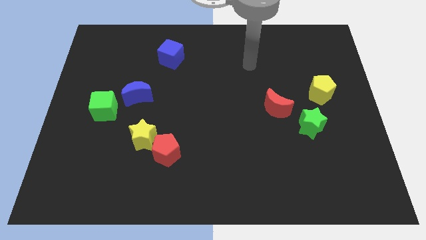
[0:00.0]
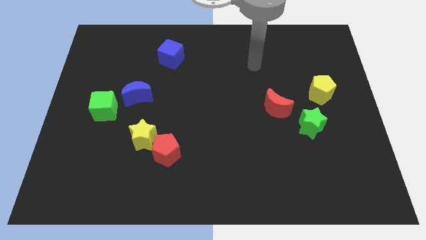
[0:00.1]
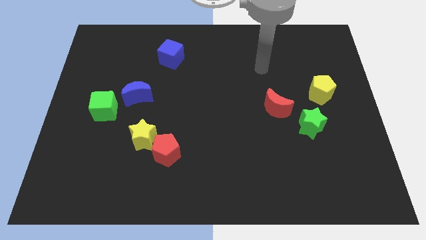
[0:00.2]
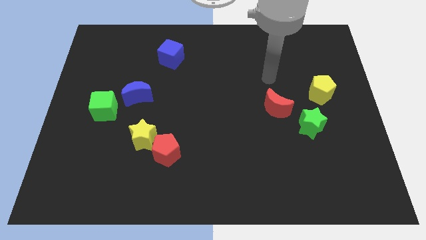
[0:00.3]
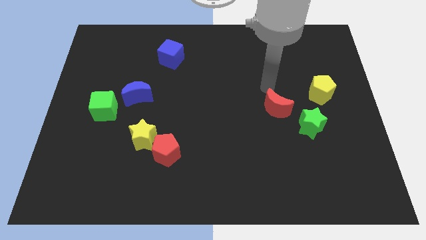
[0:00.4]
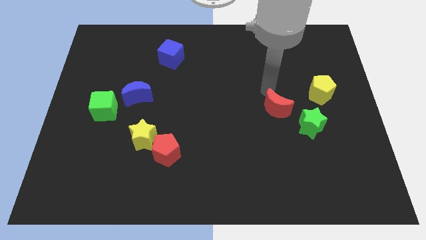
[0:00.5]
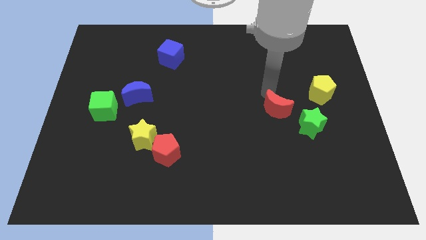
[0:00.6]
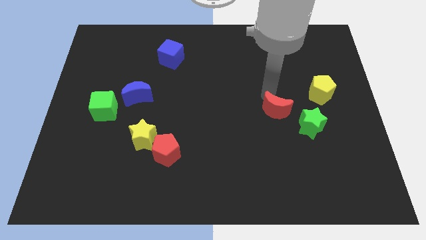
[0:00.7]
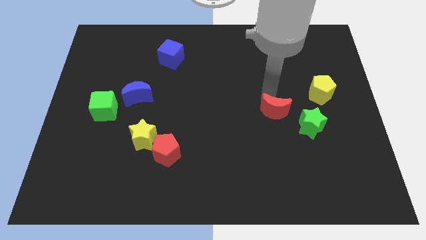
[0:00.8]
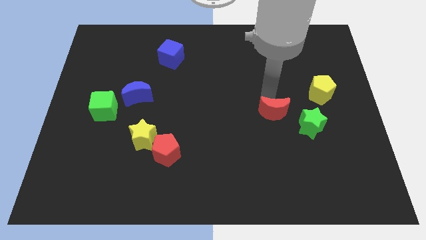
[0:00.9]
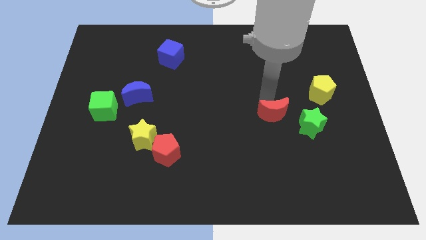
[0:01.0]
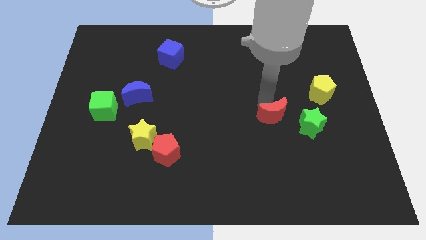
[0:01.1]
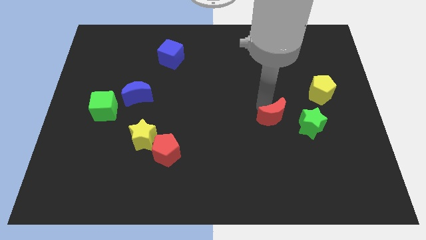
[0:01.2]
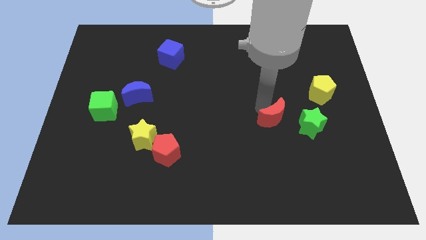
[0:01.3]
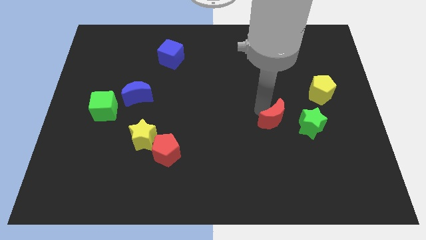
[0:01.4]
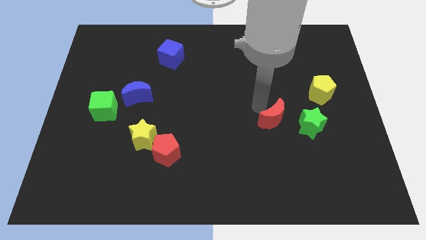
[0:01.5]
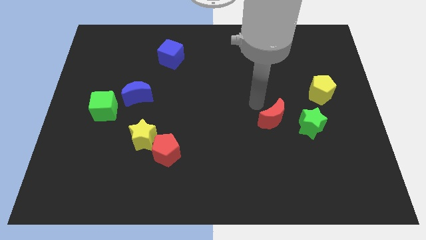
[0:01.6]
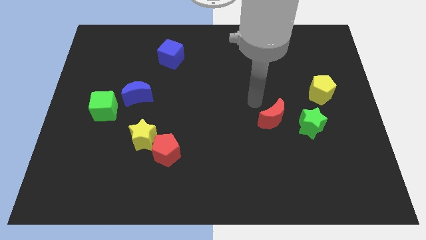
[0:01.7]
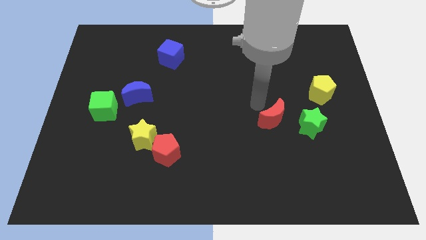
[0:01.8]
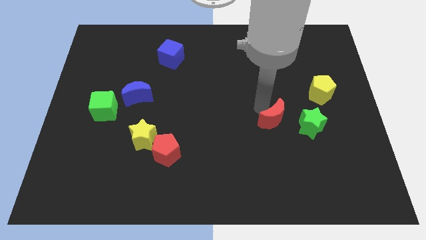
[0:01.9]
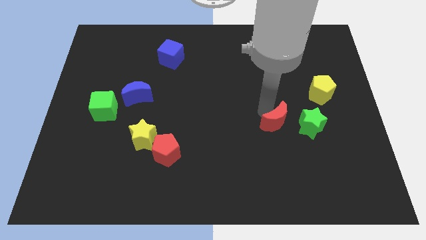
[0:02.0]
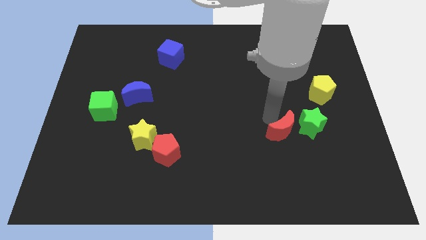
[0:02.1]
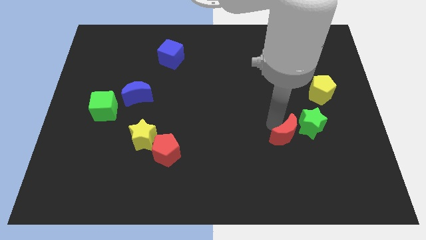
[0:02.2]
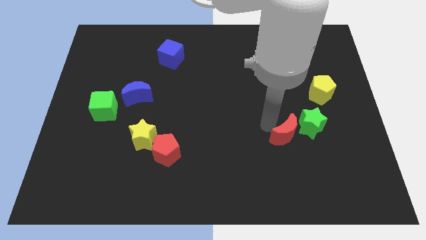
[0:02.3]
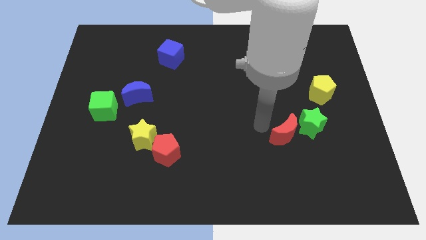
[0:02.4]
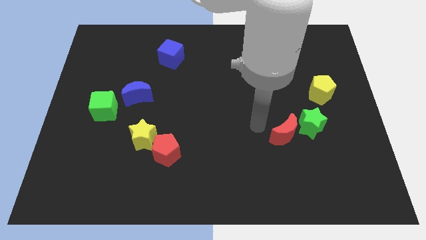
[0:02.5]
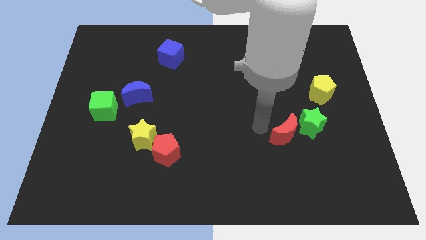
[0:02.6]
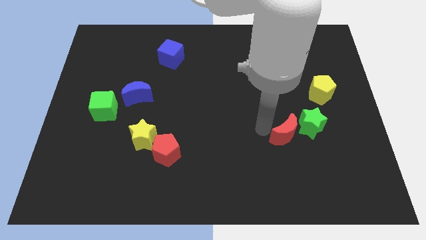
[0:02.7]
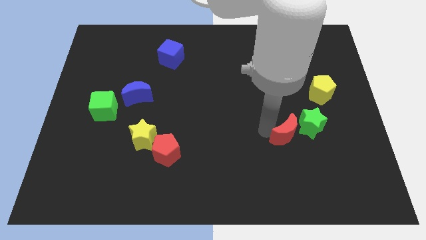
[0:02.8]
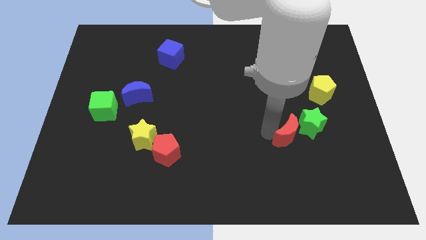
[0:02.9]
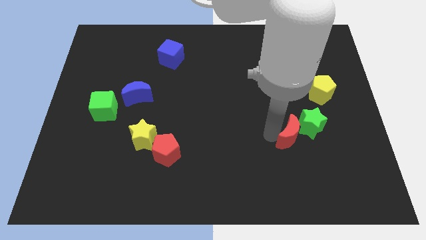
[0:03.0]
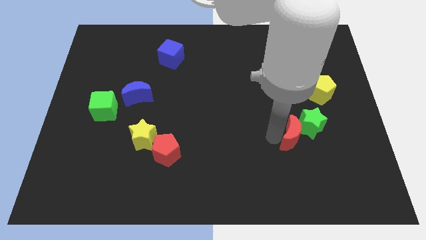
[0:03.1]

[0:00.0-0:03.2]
slightly push the red moon diagonally down and right

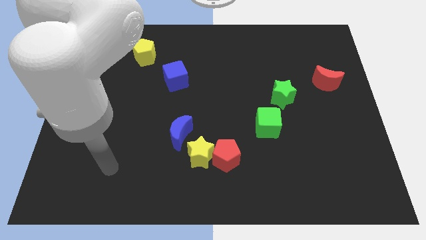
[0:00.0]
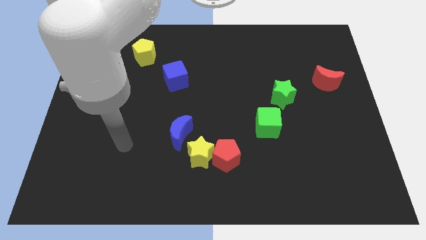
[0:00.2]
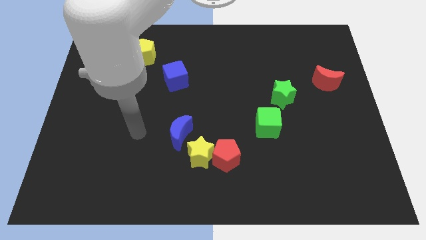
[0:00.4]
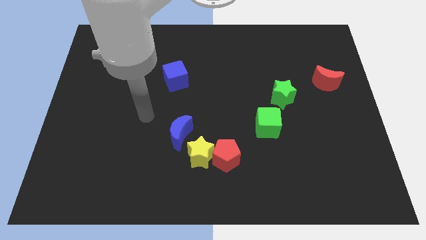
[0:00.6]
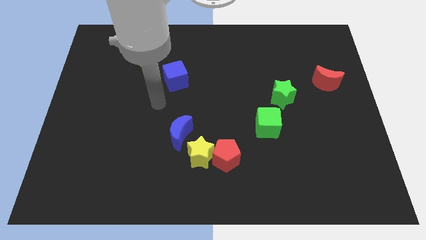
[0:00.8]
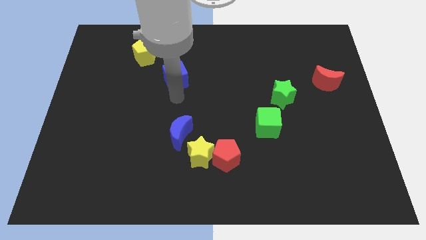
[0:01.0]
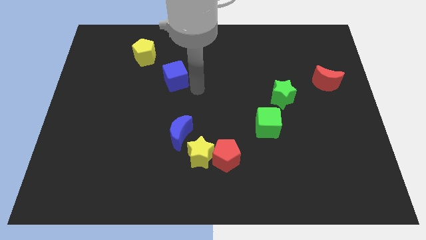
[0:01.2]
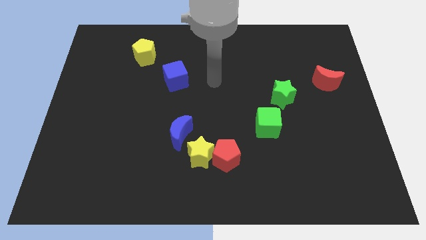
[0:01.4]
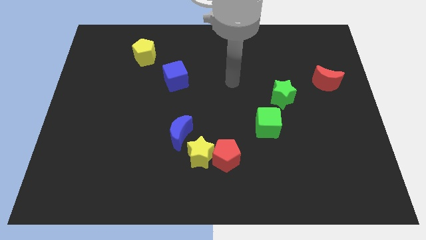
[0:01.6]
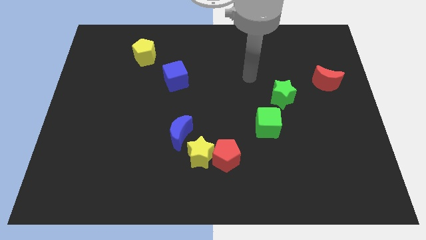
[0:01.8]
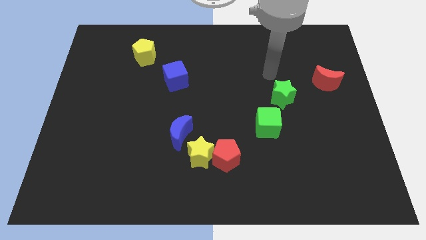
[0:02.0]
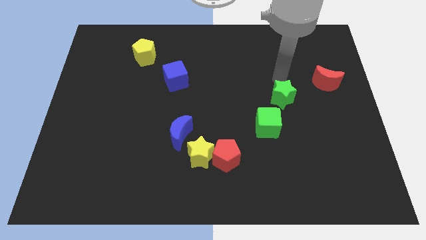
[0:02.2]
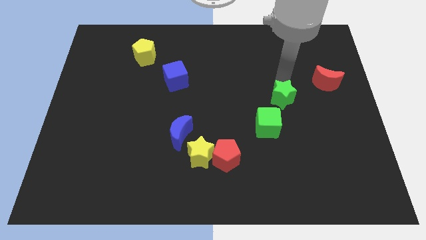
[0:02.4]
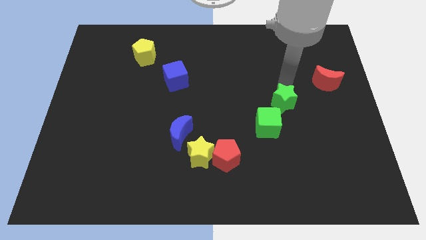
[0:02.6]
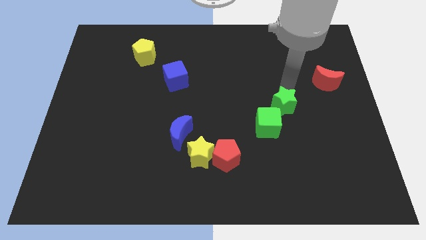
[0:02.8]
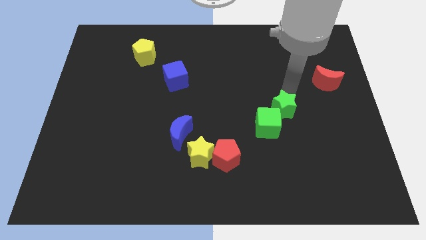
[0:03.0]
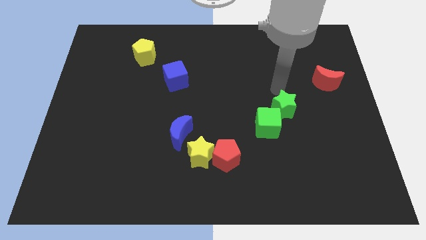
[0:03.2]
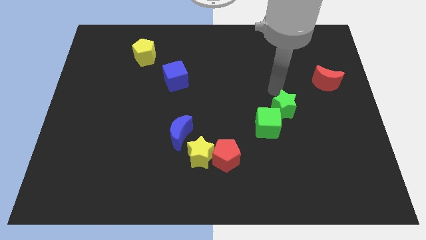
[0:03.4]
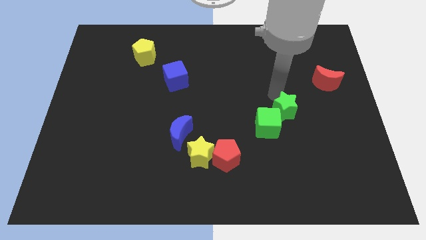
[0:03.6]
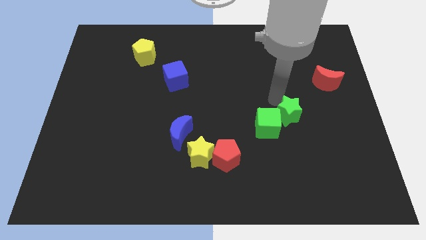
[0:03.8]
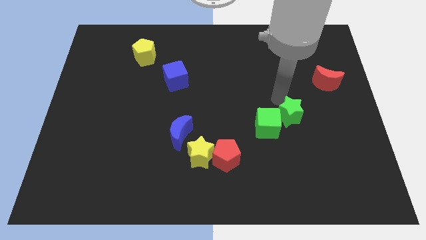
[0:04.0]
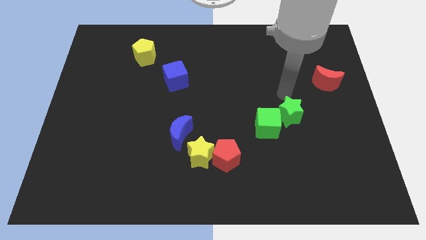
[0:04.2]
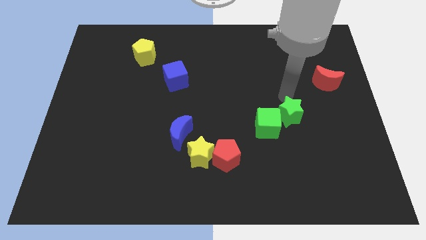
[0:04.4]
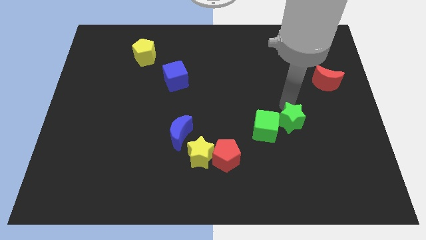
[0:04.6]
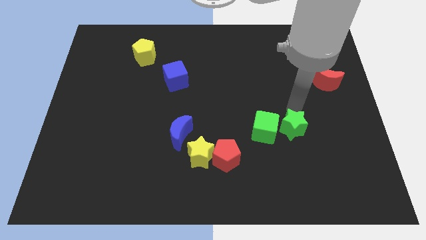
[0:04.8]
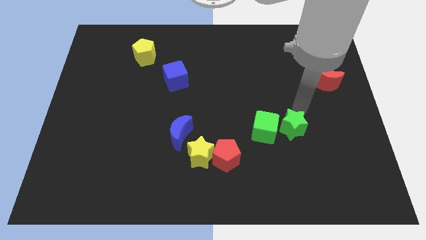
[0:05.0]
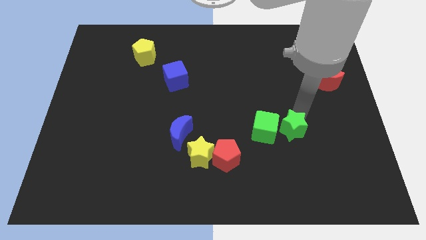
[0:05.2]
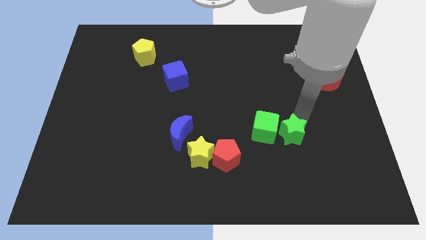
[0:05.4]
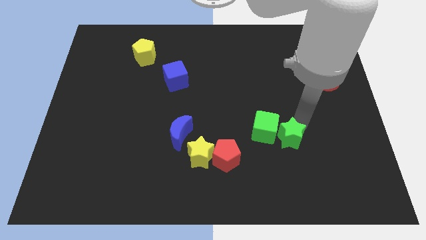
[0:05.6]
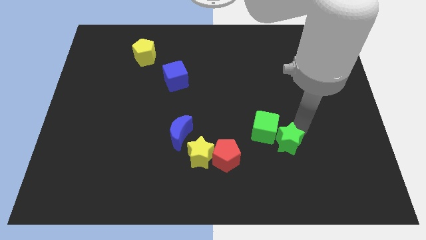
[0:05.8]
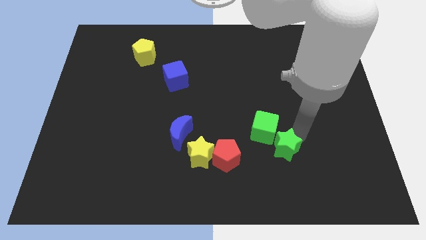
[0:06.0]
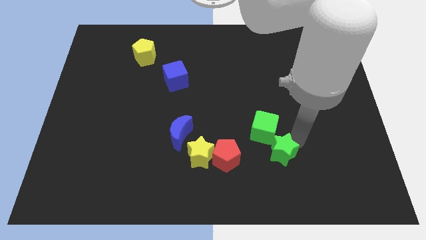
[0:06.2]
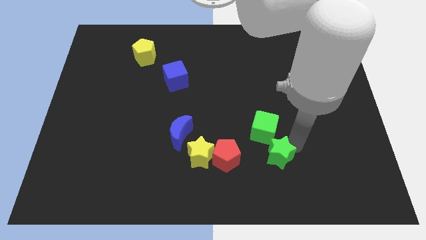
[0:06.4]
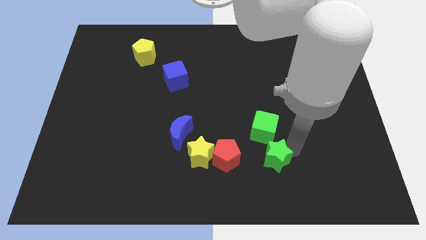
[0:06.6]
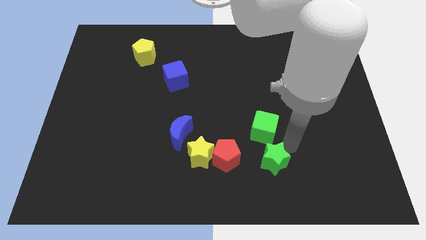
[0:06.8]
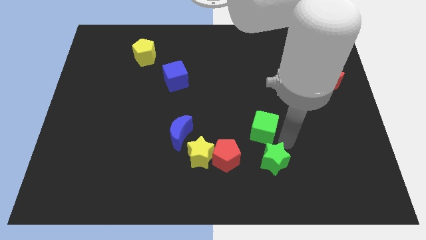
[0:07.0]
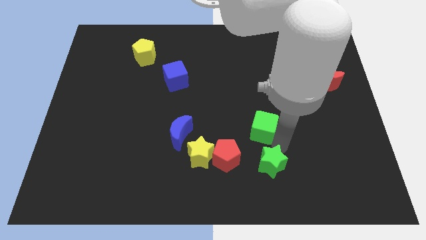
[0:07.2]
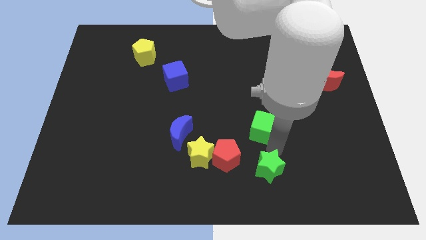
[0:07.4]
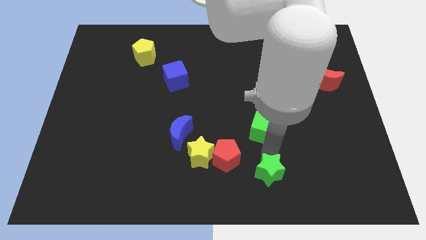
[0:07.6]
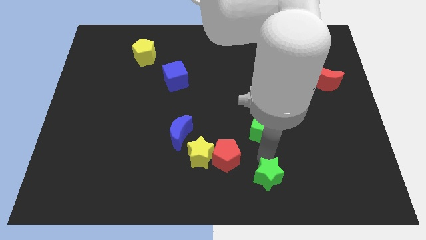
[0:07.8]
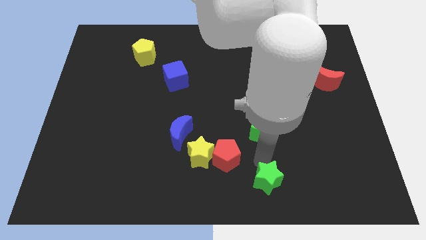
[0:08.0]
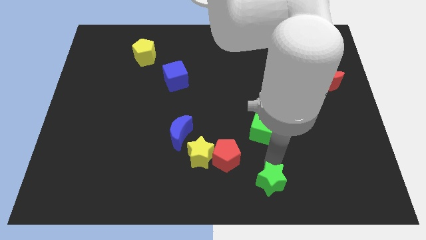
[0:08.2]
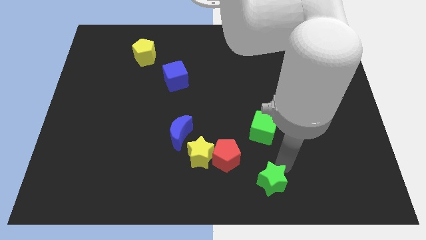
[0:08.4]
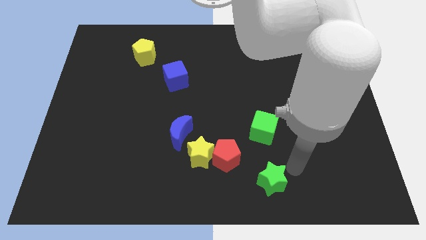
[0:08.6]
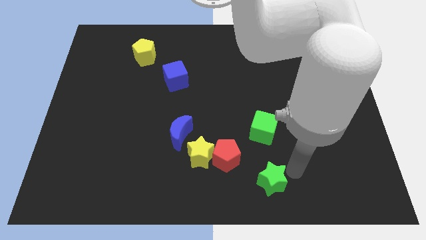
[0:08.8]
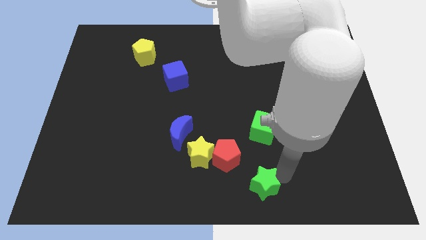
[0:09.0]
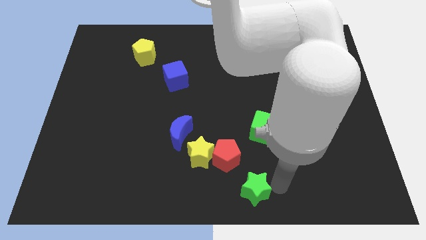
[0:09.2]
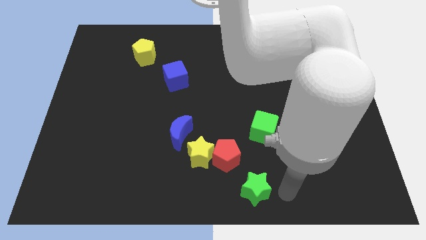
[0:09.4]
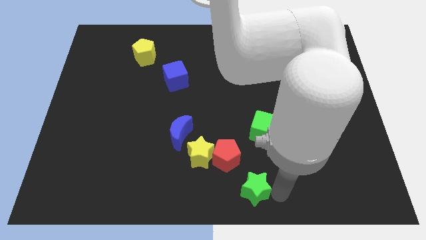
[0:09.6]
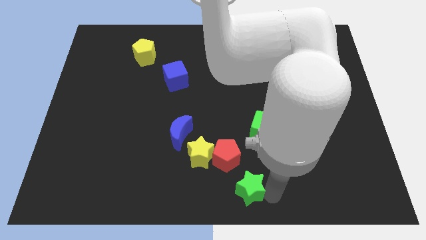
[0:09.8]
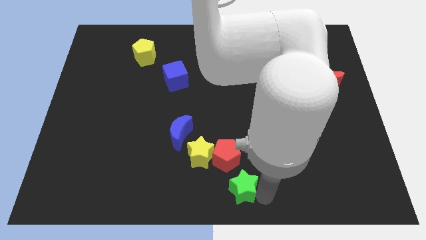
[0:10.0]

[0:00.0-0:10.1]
push the green star downwards and left
